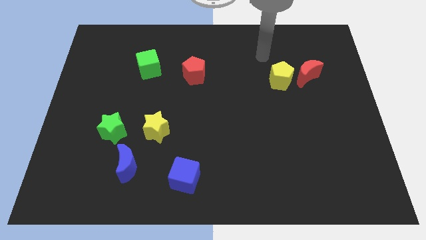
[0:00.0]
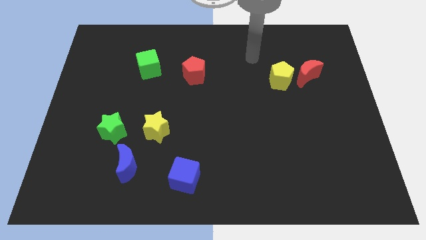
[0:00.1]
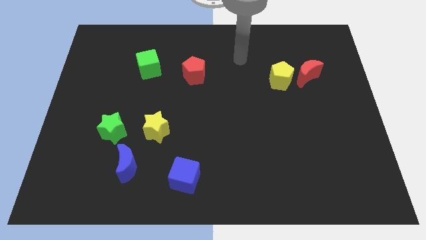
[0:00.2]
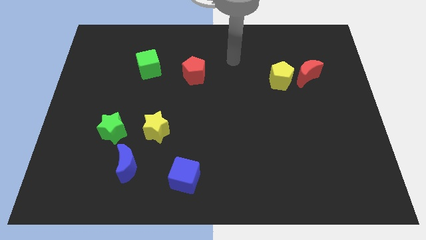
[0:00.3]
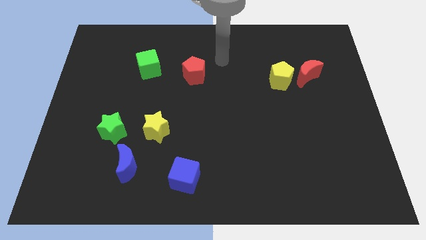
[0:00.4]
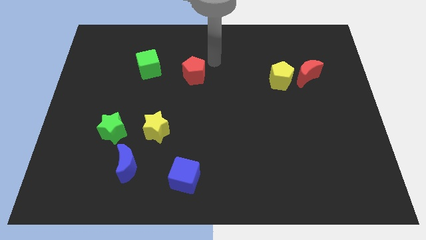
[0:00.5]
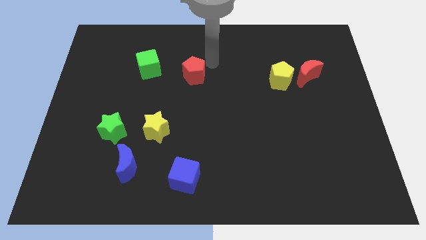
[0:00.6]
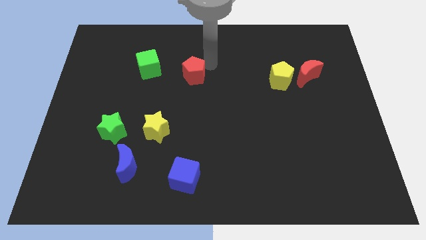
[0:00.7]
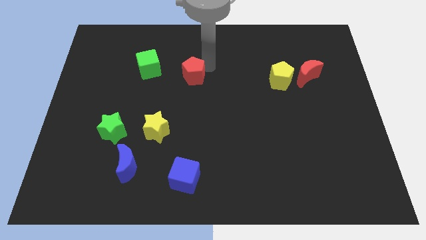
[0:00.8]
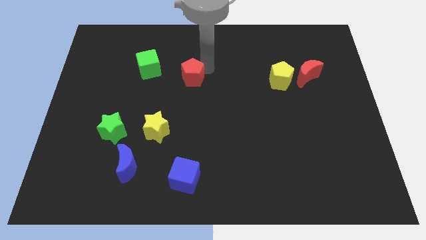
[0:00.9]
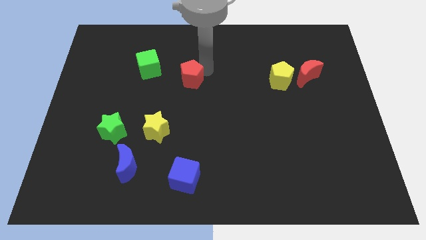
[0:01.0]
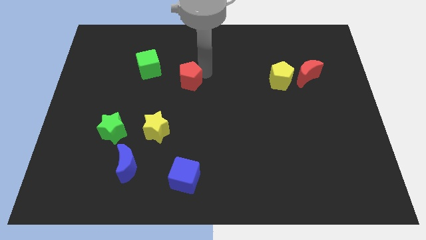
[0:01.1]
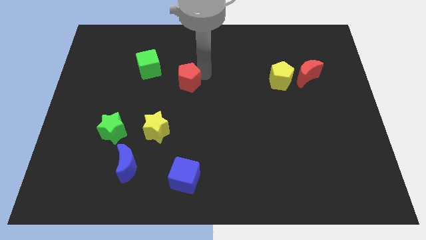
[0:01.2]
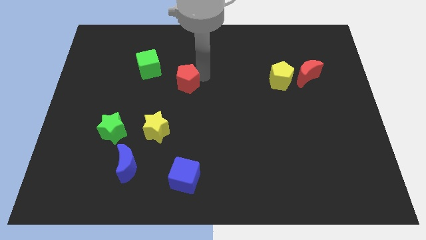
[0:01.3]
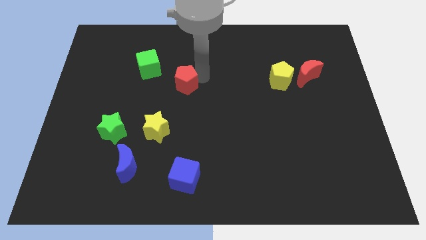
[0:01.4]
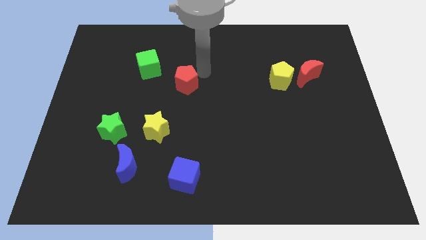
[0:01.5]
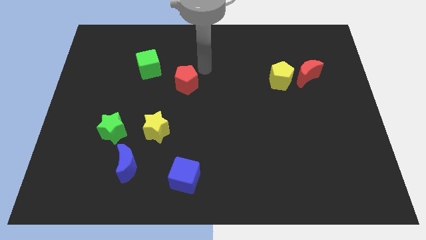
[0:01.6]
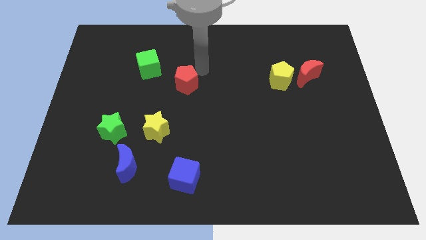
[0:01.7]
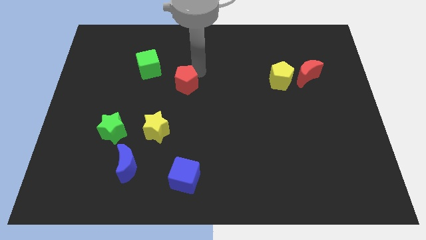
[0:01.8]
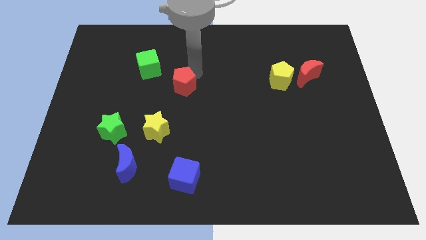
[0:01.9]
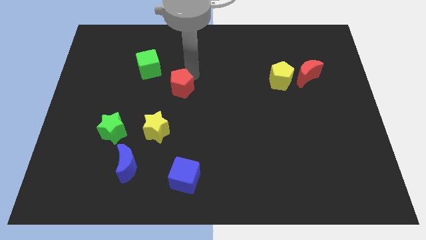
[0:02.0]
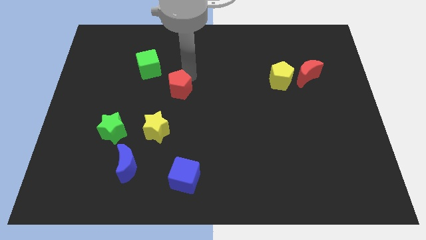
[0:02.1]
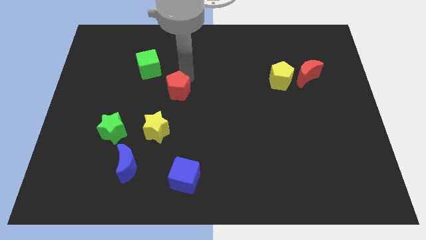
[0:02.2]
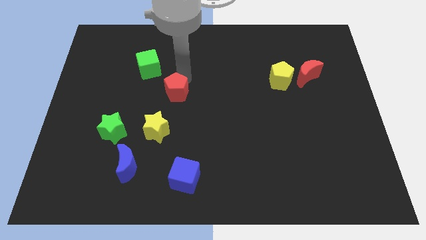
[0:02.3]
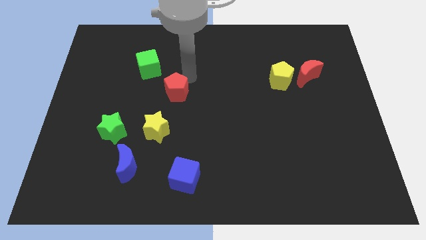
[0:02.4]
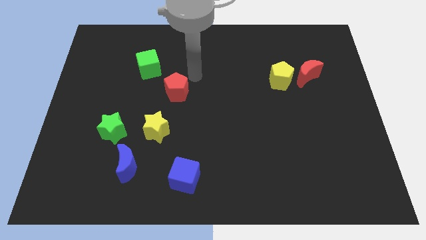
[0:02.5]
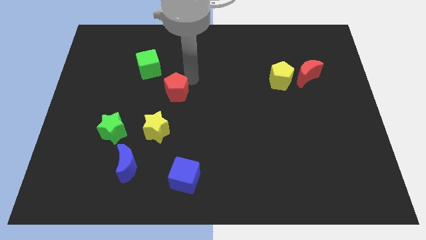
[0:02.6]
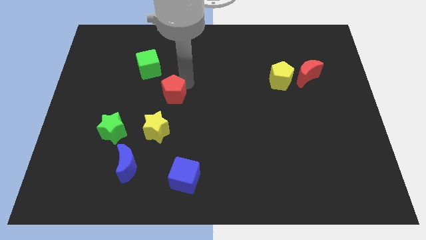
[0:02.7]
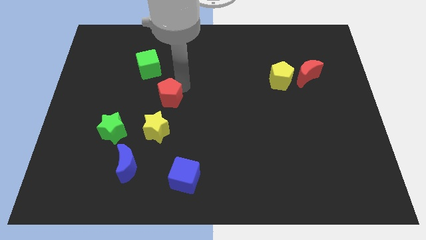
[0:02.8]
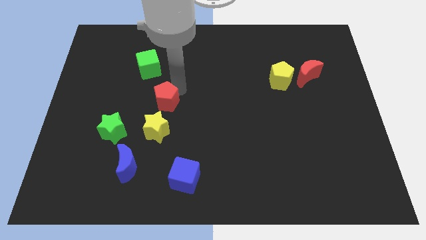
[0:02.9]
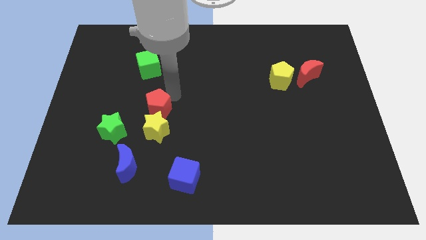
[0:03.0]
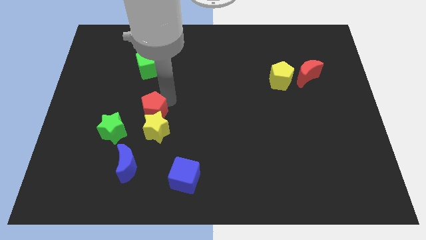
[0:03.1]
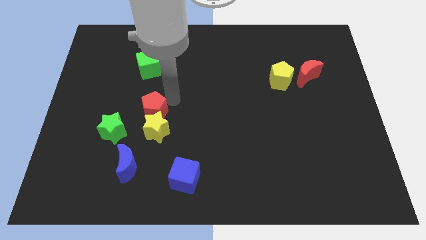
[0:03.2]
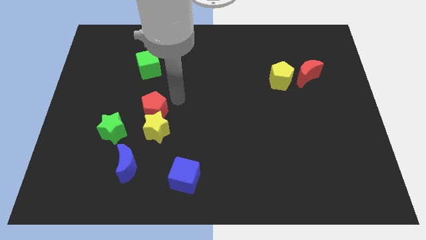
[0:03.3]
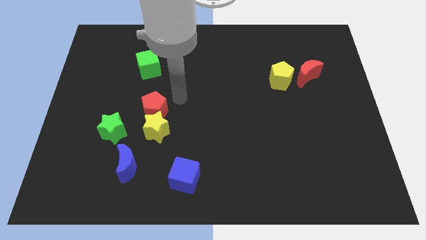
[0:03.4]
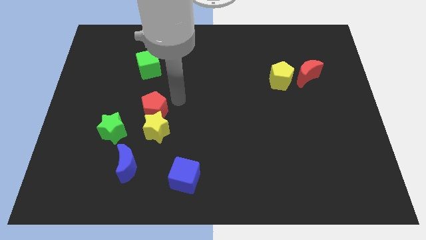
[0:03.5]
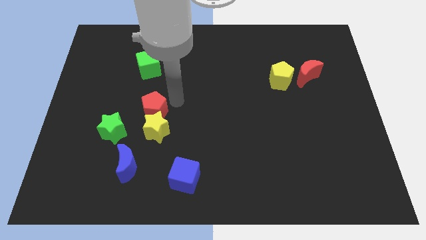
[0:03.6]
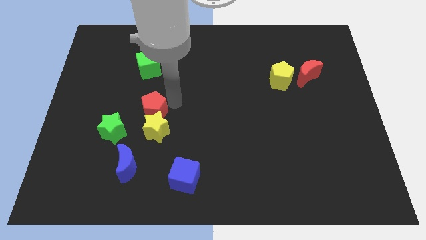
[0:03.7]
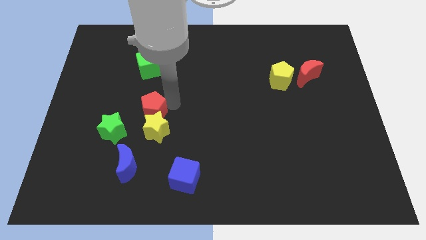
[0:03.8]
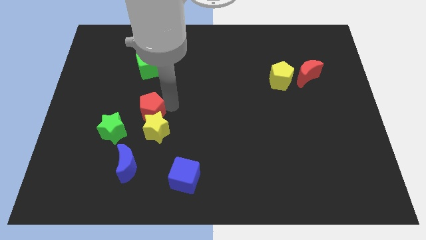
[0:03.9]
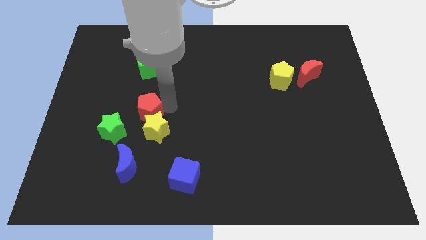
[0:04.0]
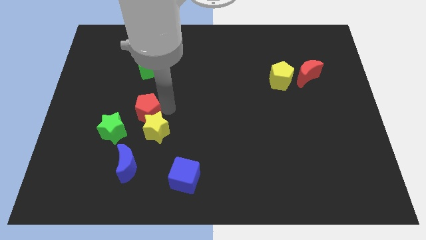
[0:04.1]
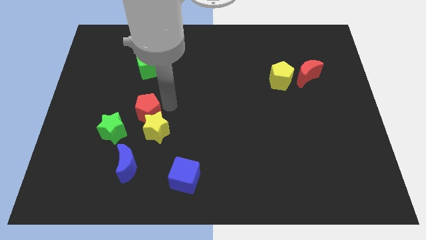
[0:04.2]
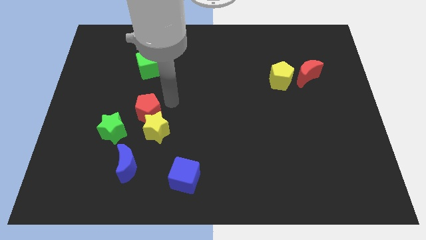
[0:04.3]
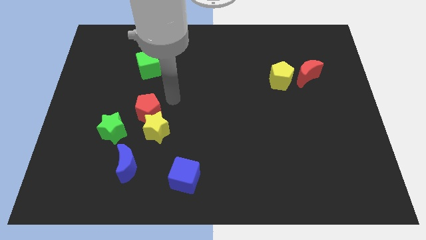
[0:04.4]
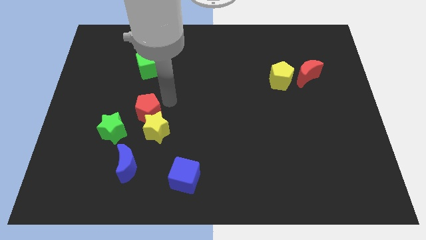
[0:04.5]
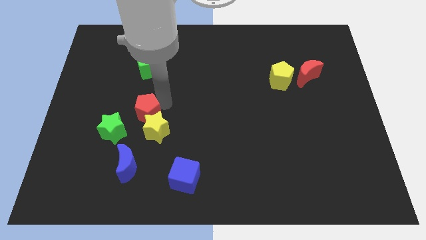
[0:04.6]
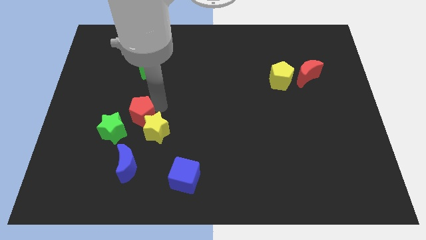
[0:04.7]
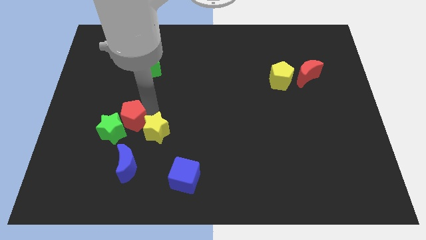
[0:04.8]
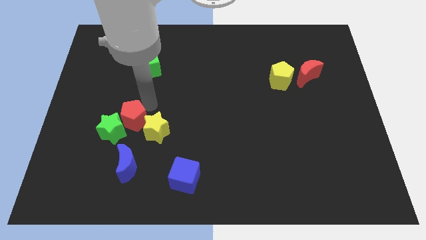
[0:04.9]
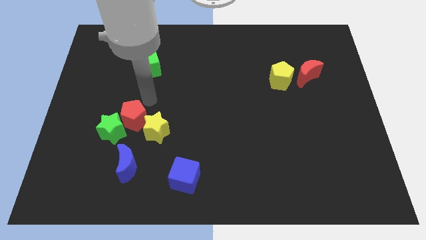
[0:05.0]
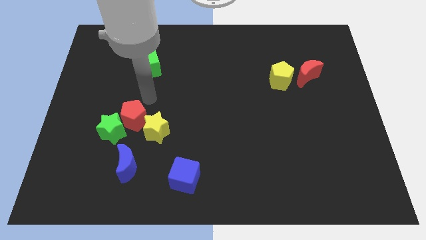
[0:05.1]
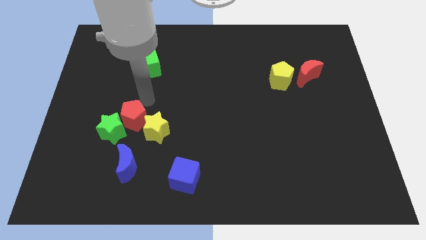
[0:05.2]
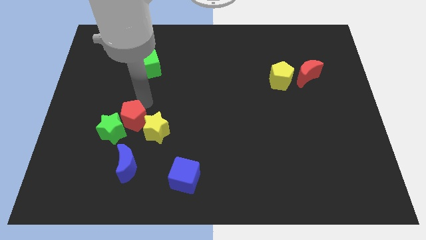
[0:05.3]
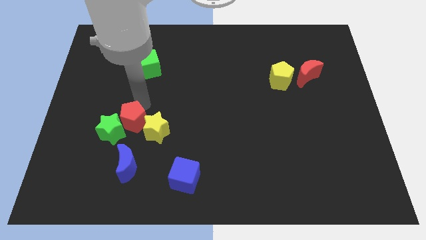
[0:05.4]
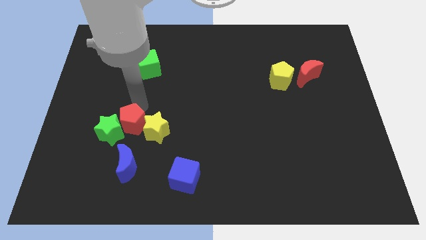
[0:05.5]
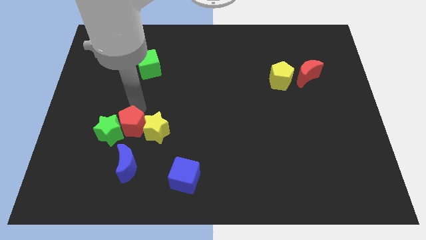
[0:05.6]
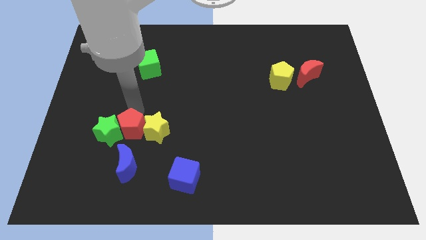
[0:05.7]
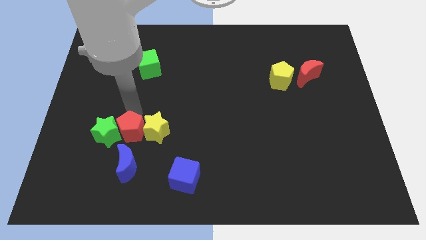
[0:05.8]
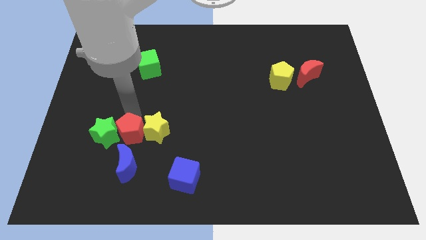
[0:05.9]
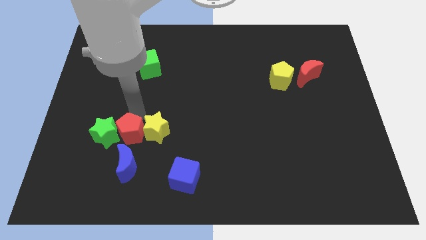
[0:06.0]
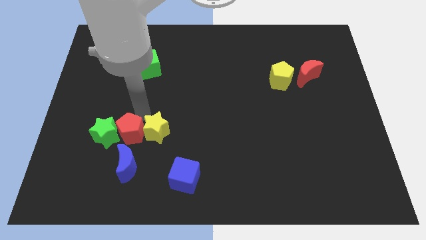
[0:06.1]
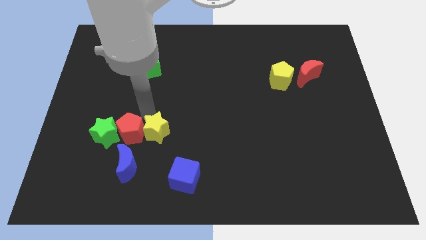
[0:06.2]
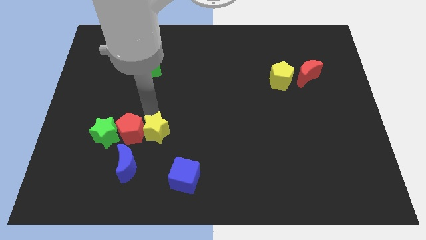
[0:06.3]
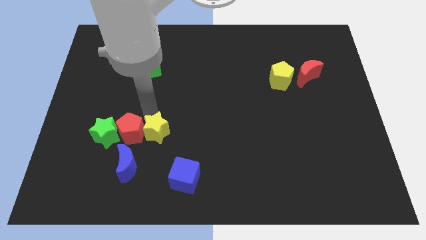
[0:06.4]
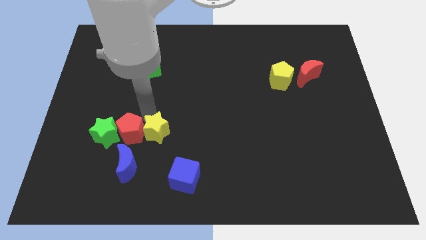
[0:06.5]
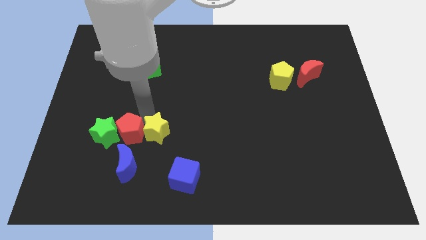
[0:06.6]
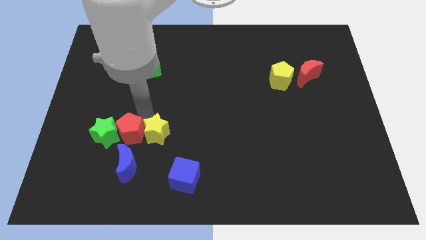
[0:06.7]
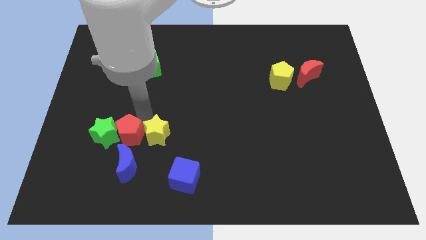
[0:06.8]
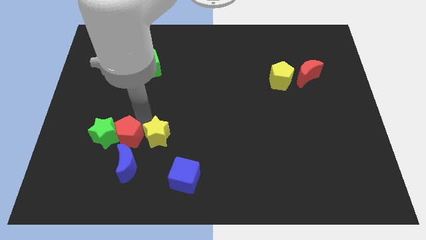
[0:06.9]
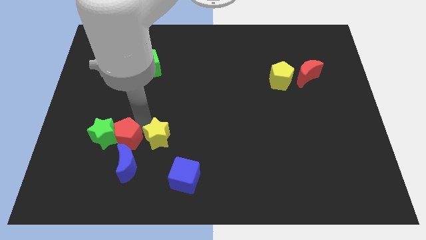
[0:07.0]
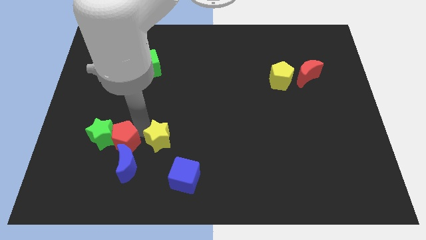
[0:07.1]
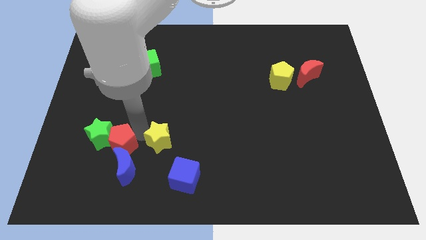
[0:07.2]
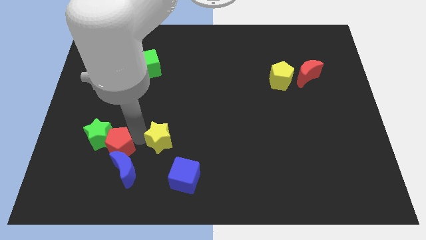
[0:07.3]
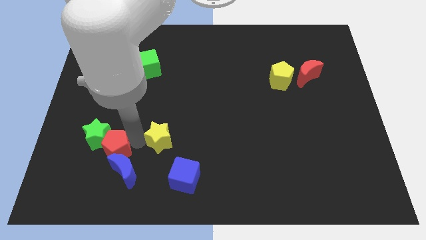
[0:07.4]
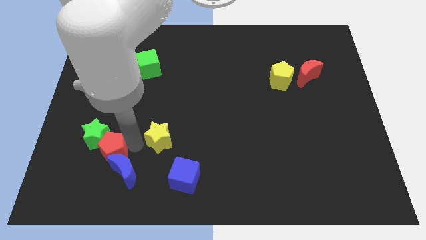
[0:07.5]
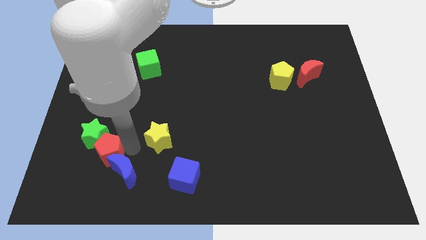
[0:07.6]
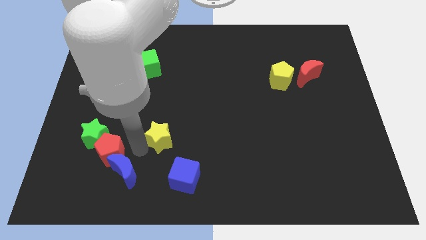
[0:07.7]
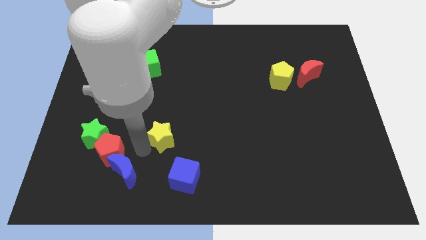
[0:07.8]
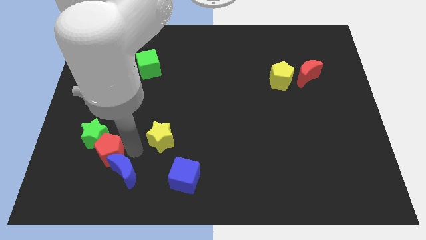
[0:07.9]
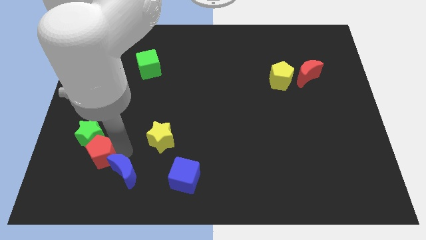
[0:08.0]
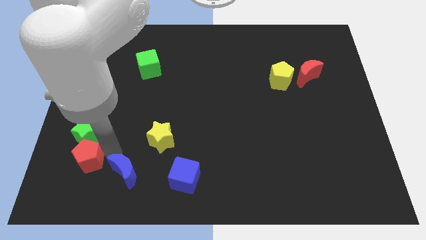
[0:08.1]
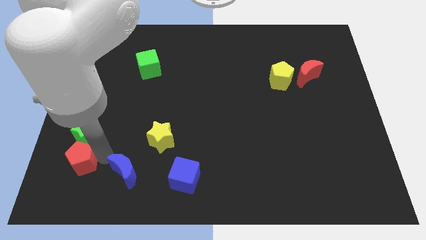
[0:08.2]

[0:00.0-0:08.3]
move the red pentagon to the bottom left of the green star
